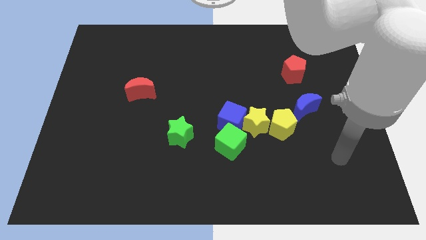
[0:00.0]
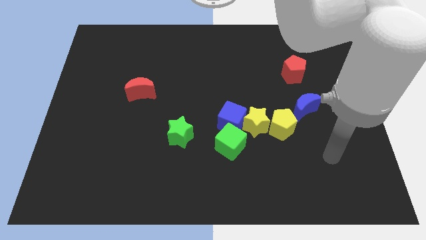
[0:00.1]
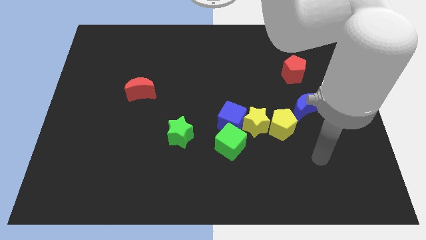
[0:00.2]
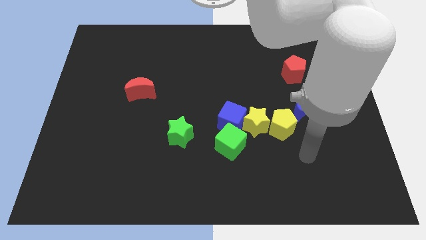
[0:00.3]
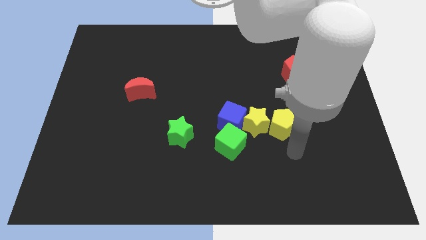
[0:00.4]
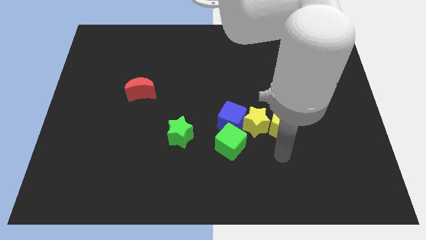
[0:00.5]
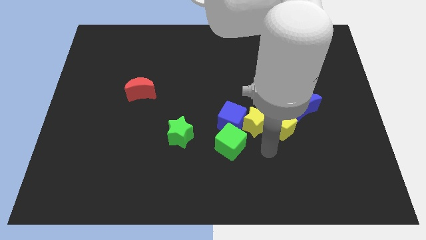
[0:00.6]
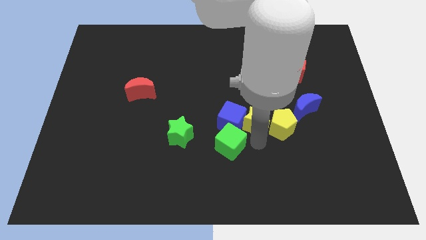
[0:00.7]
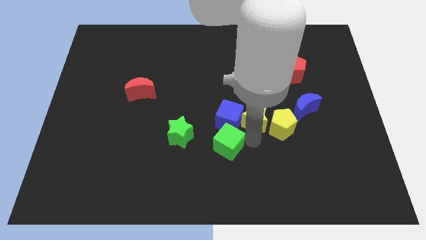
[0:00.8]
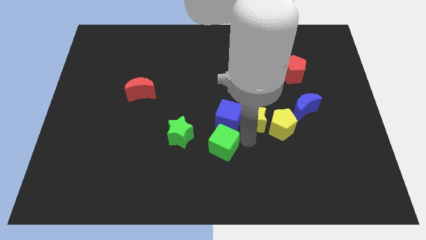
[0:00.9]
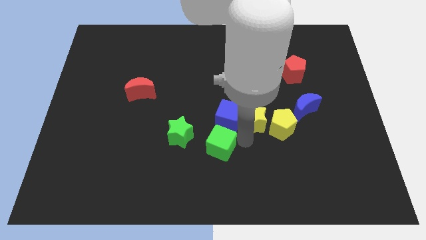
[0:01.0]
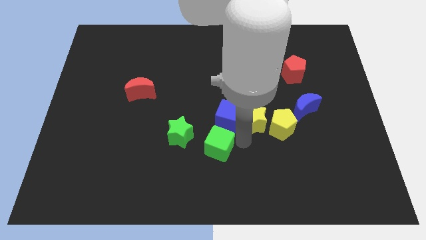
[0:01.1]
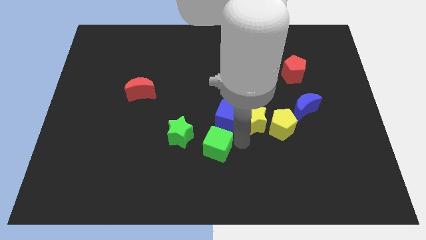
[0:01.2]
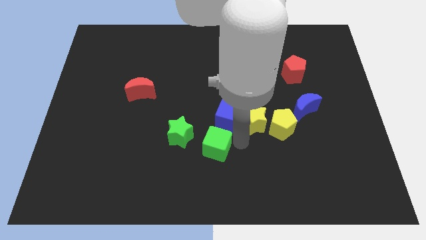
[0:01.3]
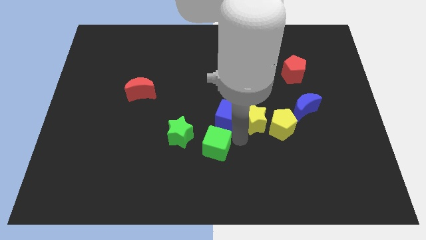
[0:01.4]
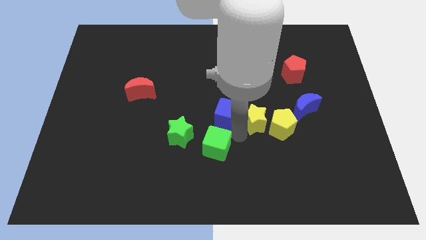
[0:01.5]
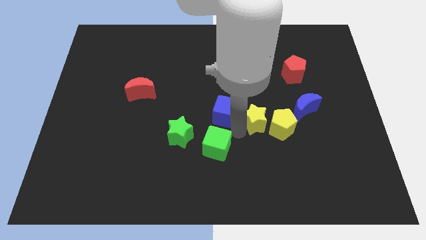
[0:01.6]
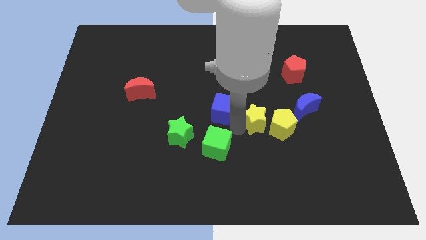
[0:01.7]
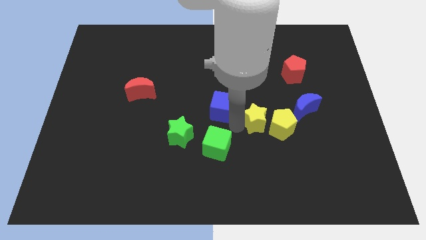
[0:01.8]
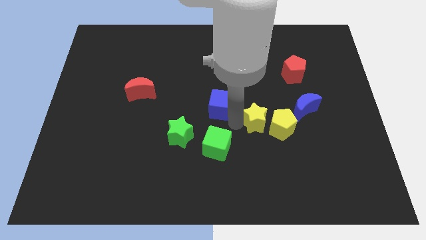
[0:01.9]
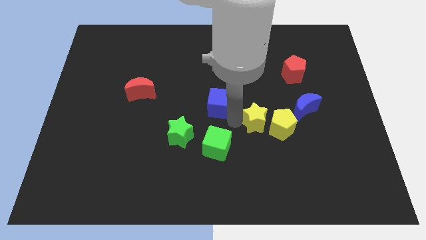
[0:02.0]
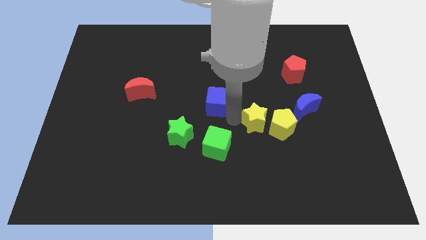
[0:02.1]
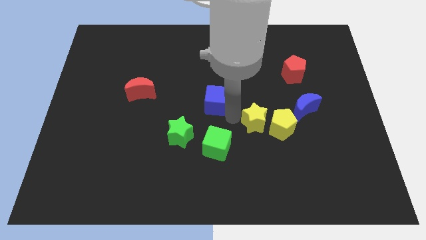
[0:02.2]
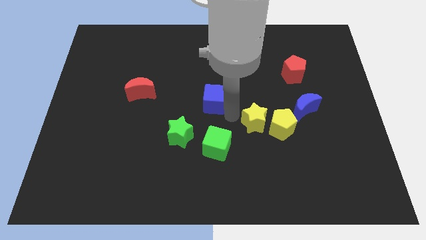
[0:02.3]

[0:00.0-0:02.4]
move the blue cube away from the yellow star and green cube

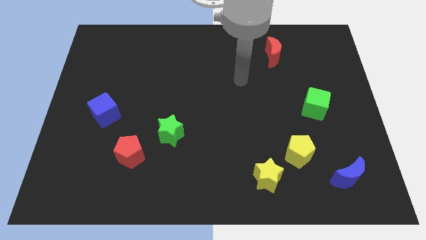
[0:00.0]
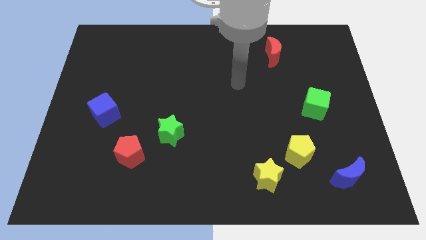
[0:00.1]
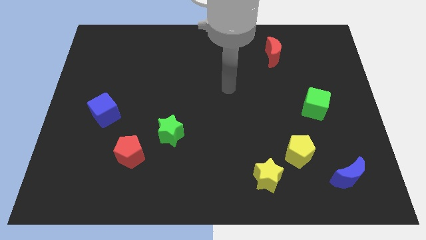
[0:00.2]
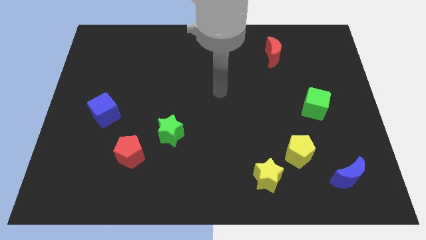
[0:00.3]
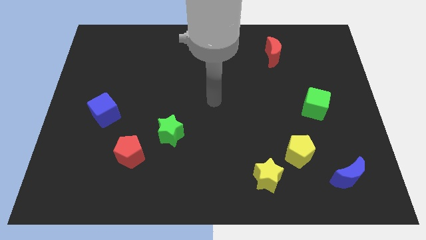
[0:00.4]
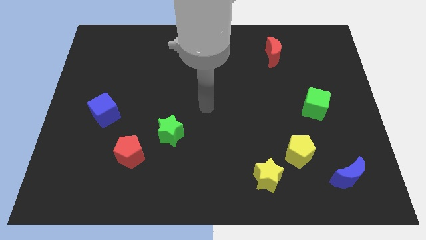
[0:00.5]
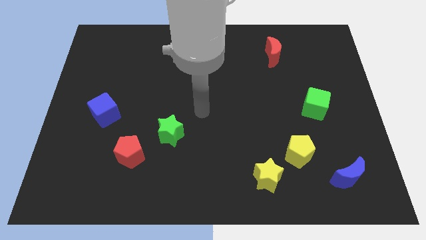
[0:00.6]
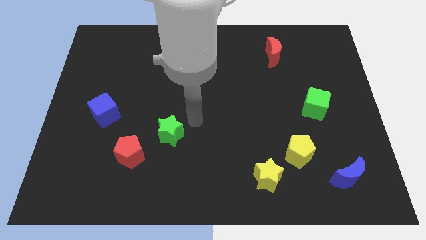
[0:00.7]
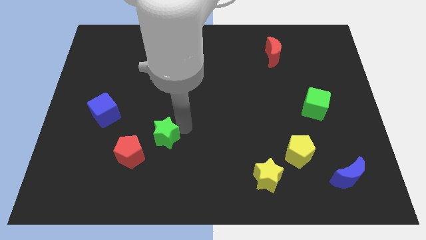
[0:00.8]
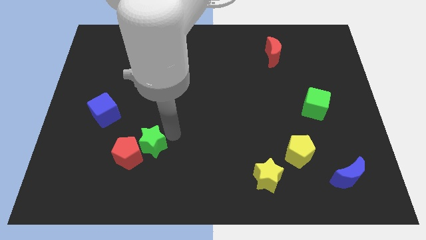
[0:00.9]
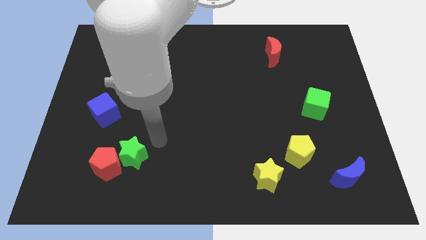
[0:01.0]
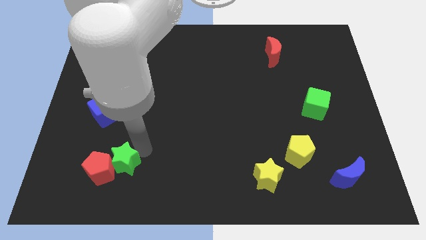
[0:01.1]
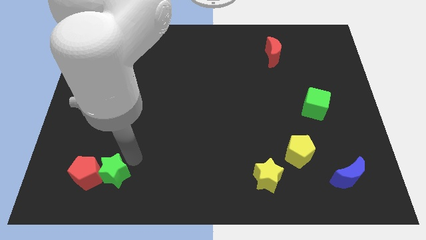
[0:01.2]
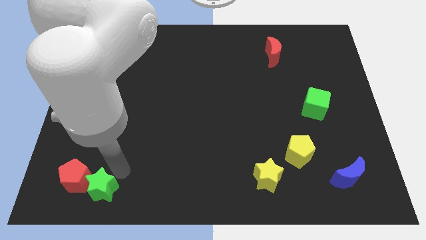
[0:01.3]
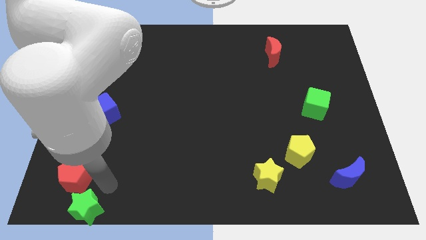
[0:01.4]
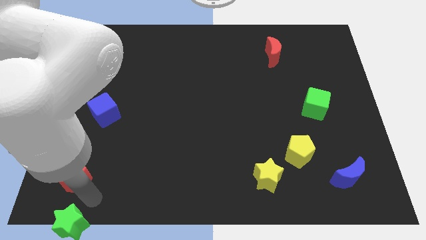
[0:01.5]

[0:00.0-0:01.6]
move the red pentagon away from the green star

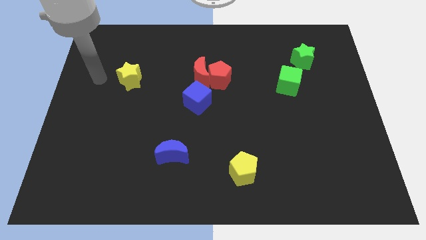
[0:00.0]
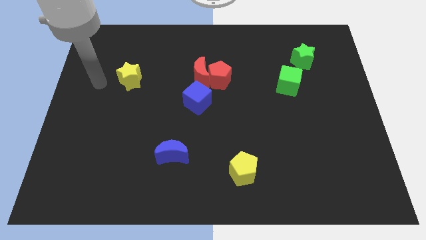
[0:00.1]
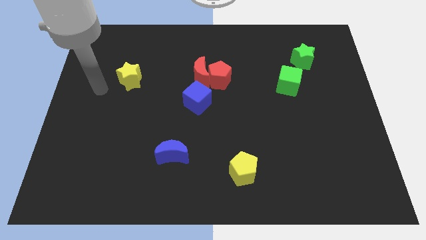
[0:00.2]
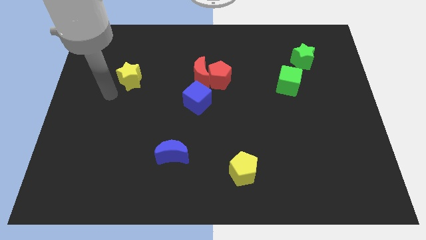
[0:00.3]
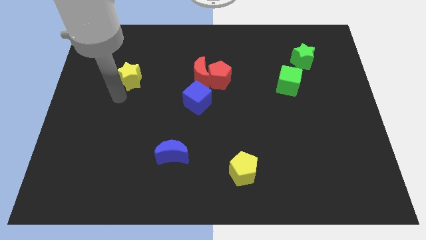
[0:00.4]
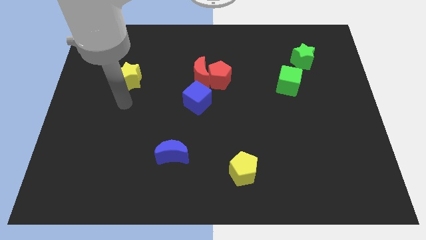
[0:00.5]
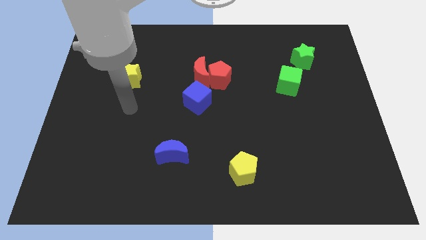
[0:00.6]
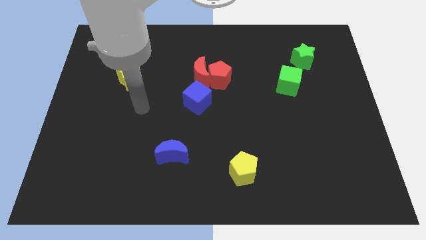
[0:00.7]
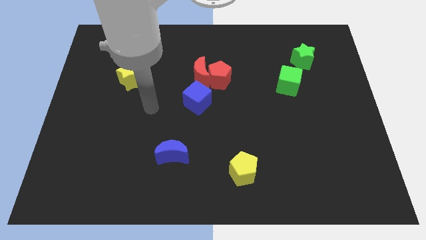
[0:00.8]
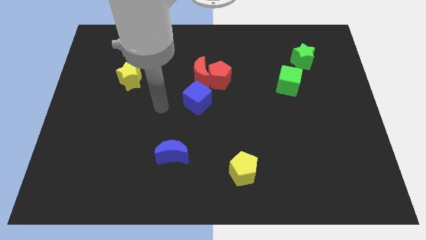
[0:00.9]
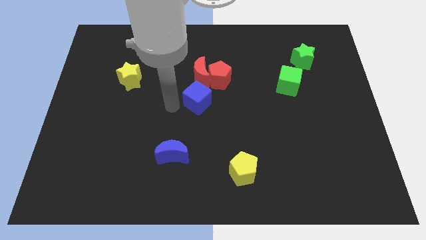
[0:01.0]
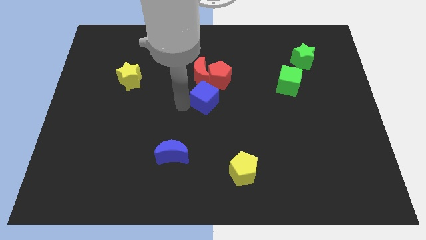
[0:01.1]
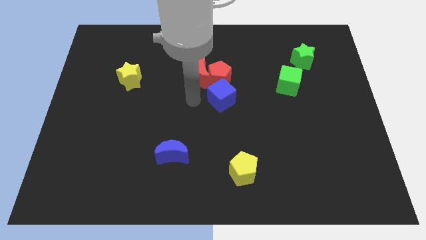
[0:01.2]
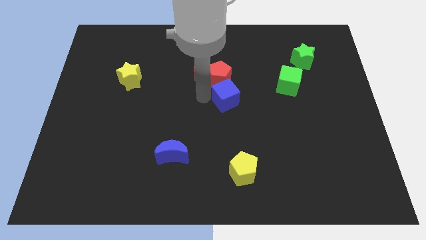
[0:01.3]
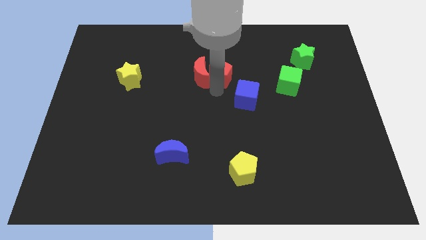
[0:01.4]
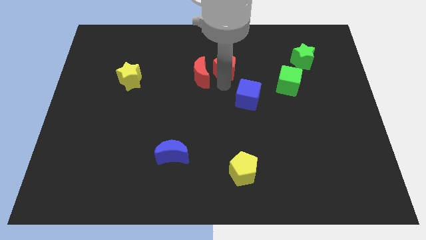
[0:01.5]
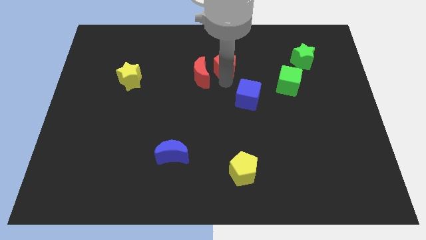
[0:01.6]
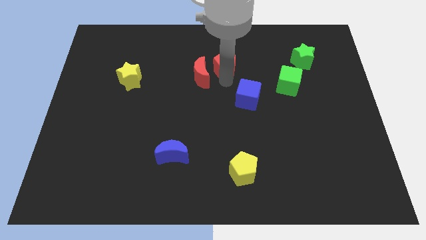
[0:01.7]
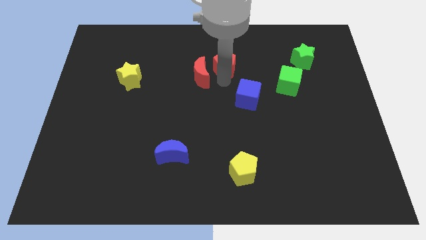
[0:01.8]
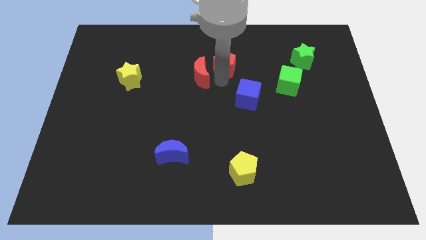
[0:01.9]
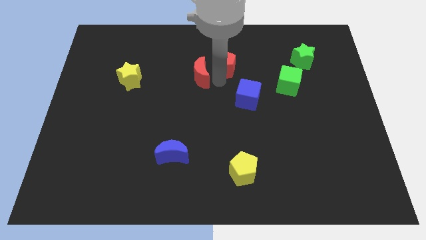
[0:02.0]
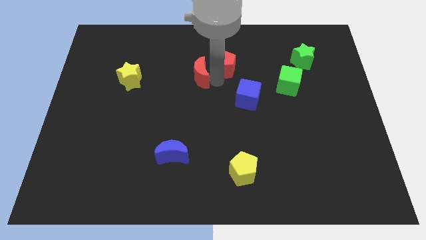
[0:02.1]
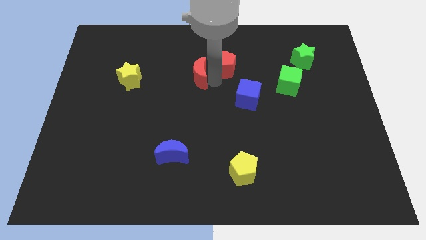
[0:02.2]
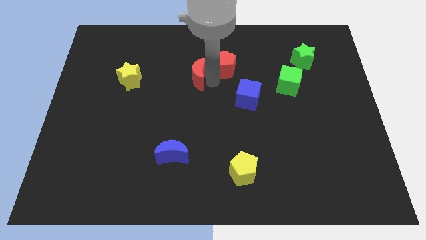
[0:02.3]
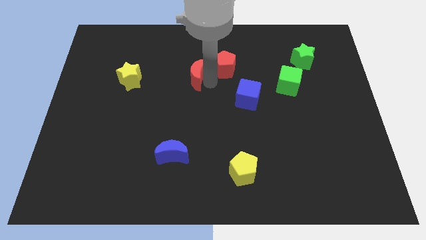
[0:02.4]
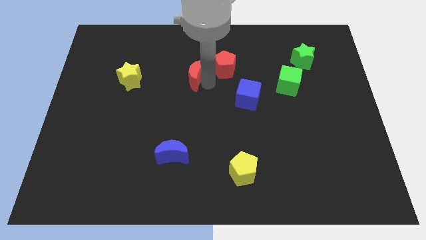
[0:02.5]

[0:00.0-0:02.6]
pull the red moon apart from the red pentagon and blue cube

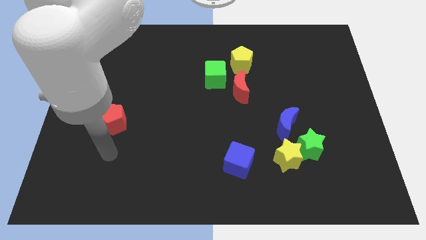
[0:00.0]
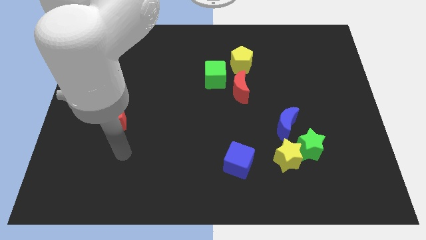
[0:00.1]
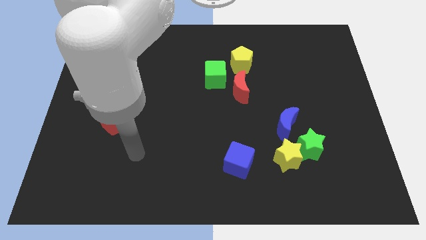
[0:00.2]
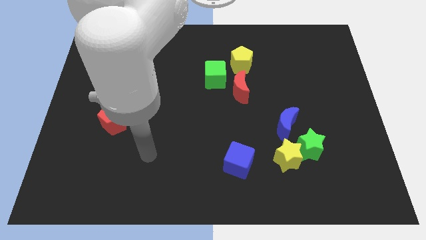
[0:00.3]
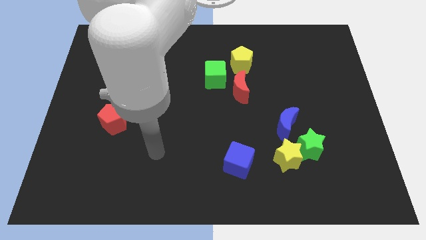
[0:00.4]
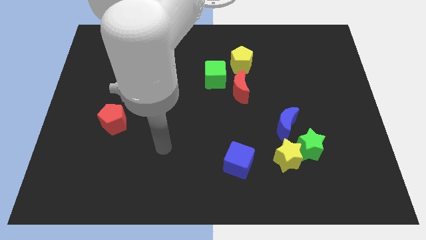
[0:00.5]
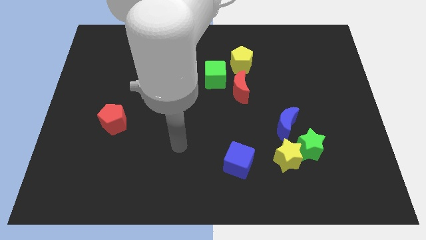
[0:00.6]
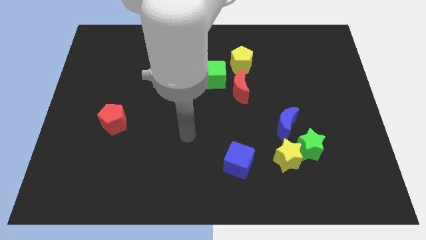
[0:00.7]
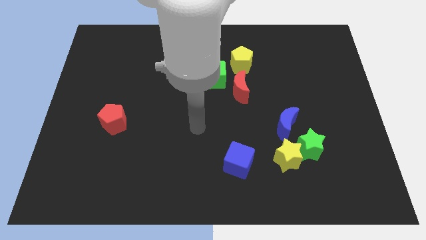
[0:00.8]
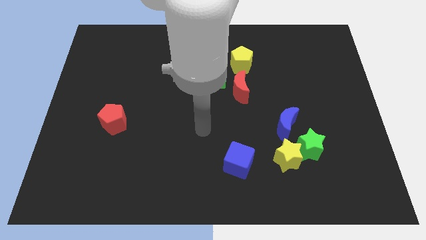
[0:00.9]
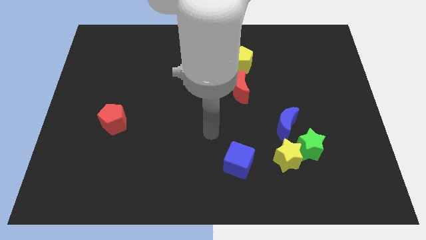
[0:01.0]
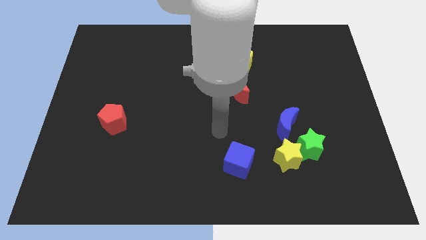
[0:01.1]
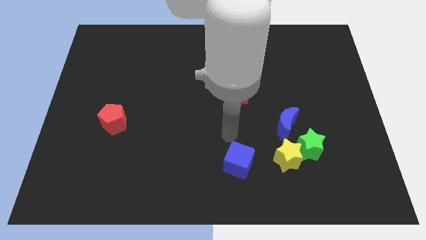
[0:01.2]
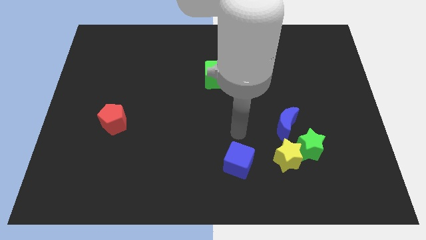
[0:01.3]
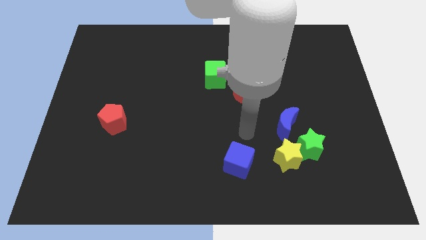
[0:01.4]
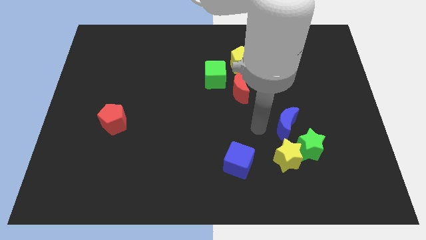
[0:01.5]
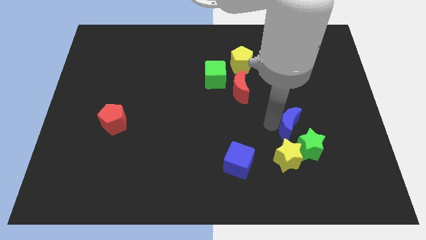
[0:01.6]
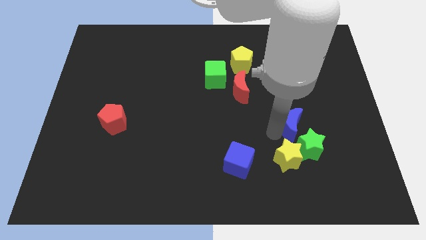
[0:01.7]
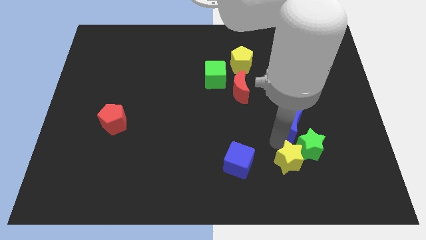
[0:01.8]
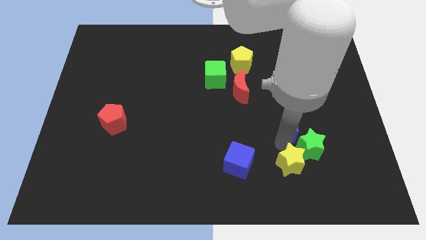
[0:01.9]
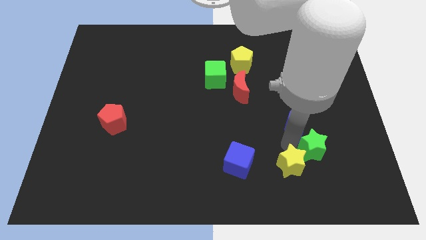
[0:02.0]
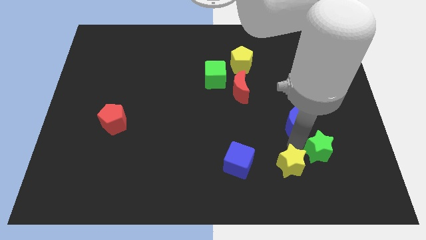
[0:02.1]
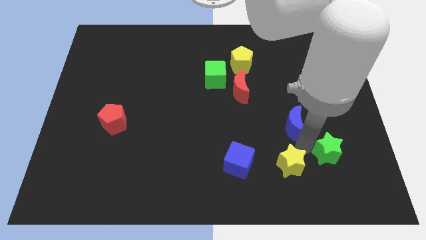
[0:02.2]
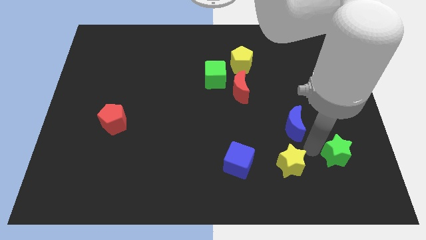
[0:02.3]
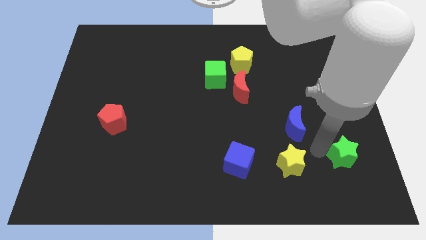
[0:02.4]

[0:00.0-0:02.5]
pull the green star apart from the yellow star and blue moon

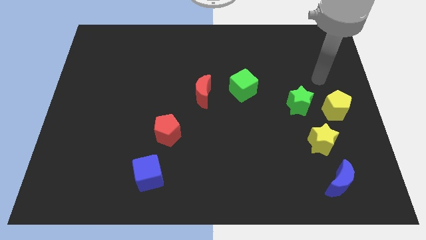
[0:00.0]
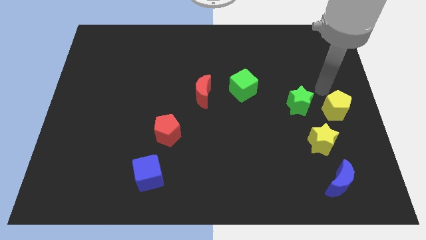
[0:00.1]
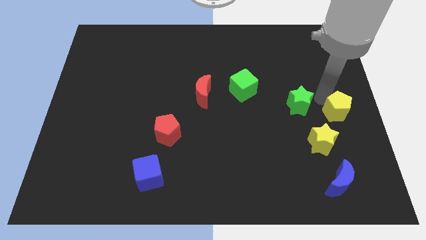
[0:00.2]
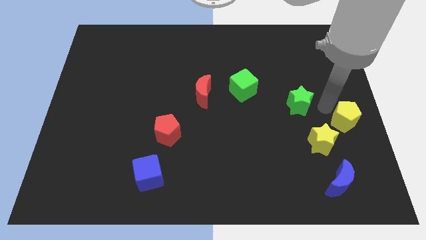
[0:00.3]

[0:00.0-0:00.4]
pull the green star apart from the yellow pentagon
